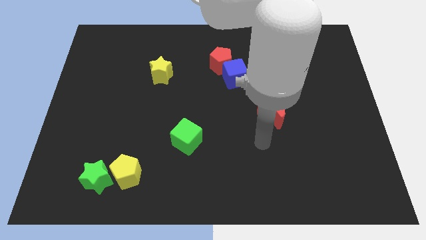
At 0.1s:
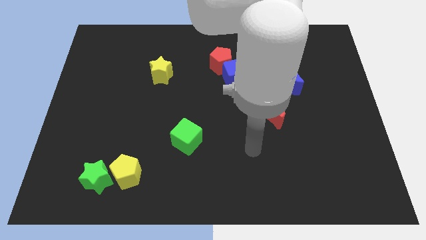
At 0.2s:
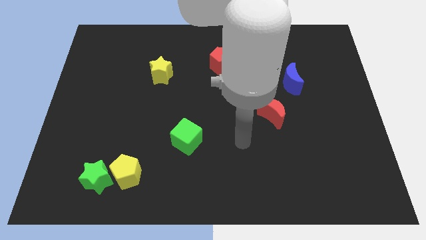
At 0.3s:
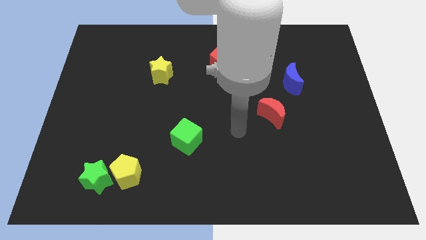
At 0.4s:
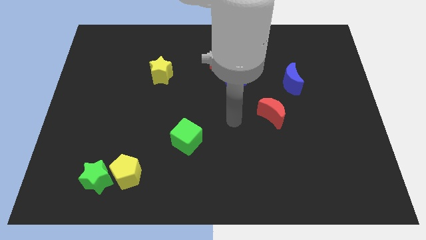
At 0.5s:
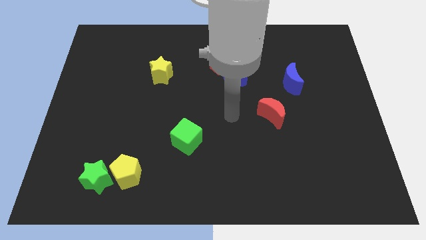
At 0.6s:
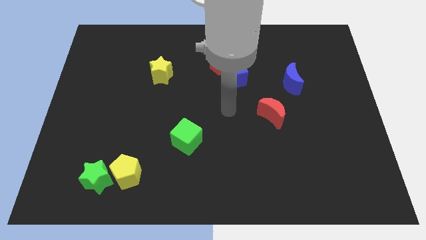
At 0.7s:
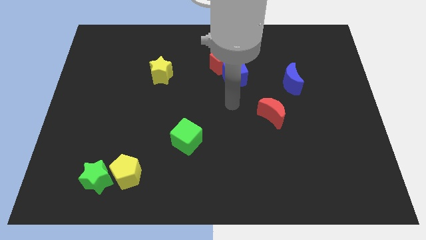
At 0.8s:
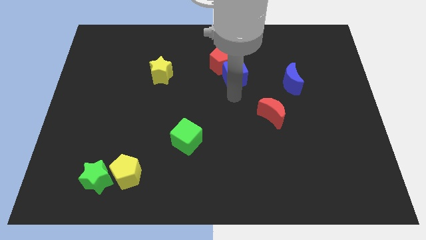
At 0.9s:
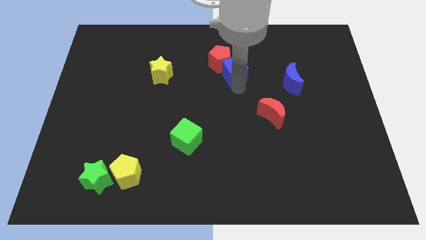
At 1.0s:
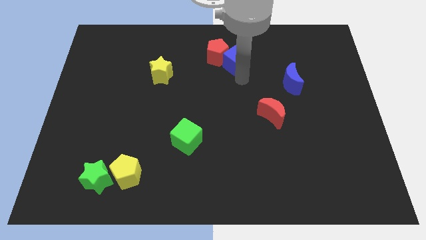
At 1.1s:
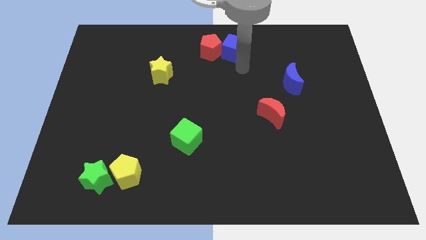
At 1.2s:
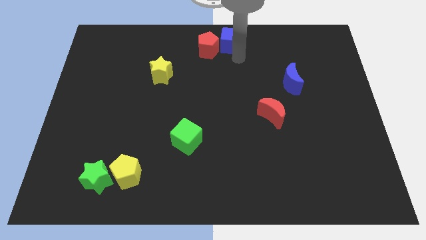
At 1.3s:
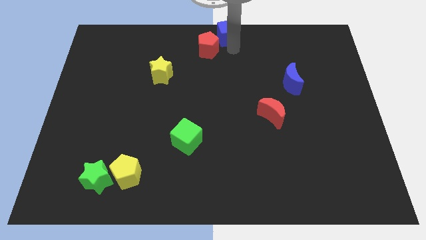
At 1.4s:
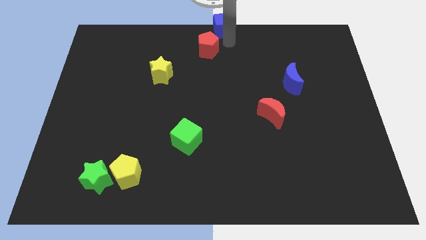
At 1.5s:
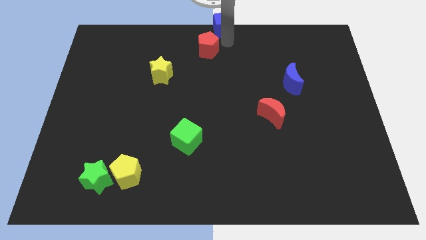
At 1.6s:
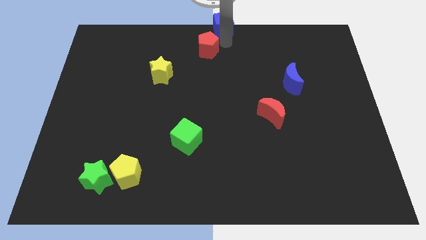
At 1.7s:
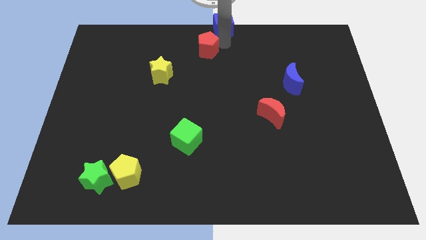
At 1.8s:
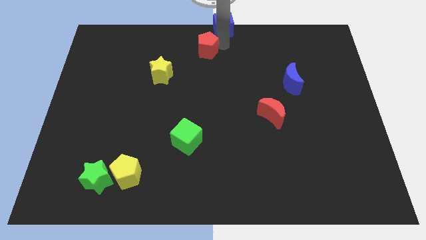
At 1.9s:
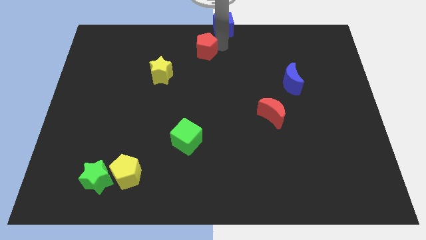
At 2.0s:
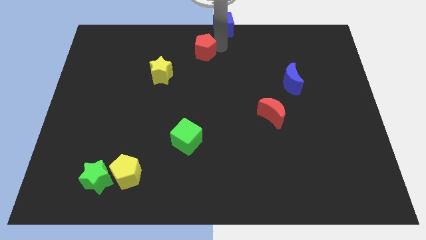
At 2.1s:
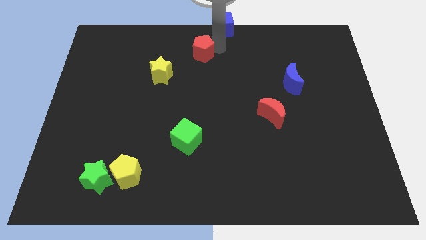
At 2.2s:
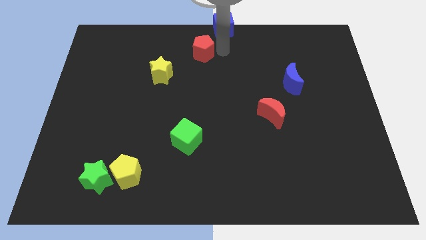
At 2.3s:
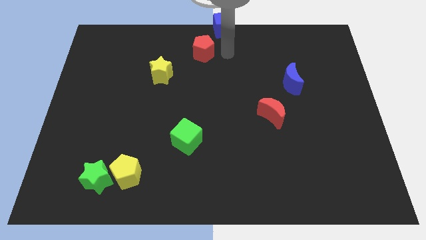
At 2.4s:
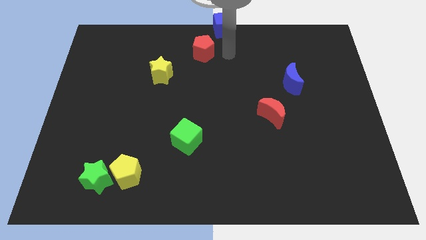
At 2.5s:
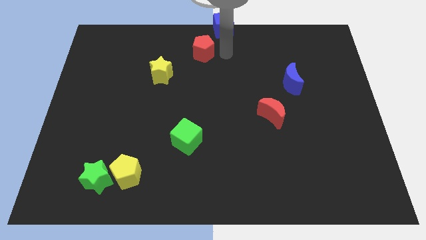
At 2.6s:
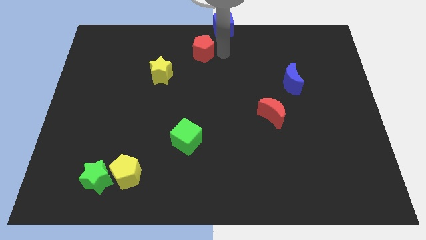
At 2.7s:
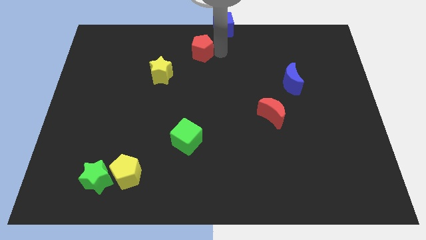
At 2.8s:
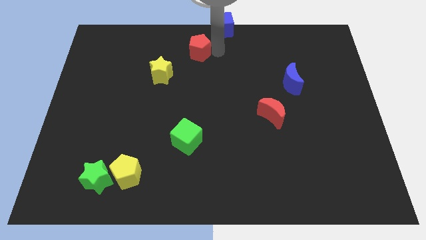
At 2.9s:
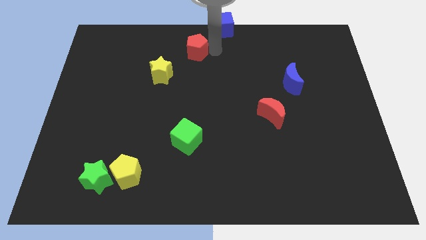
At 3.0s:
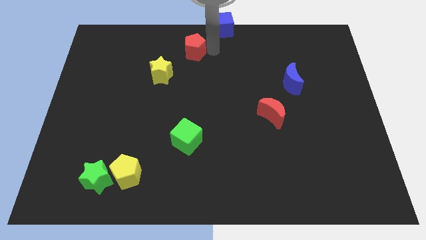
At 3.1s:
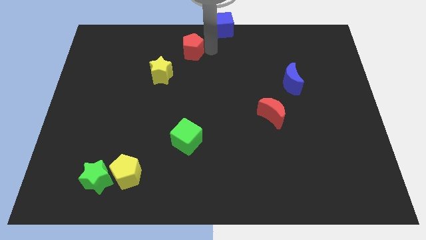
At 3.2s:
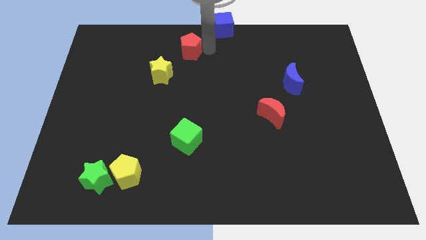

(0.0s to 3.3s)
move the red pentagon a bit to the left

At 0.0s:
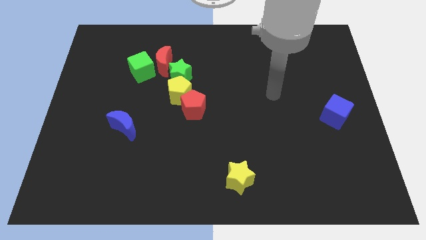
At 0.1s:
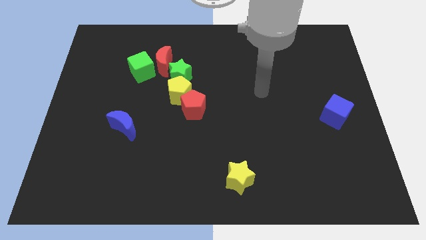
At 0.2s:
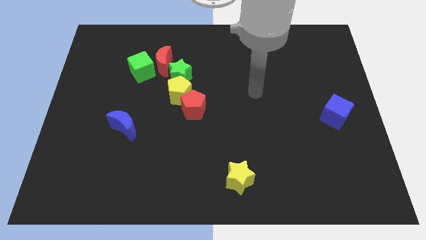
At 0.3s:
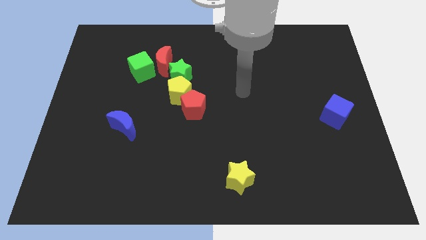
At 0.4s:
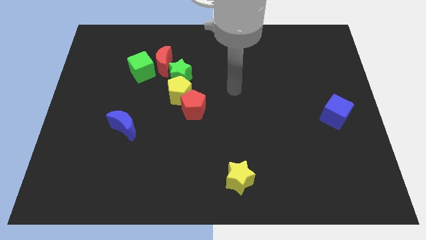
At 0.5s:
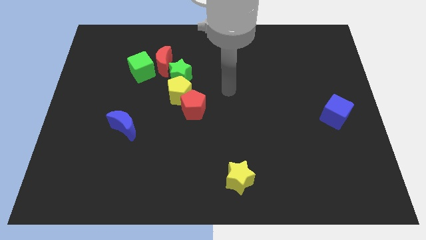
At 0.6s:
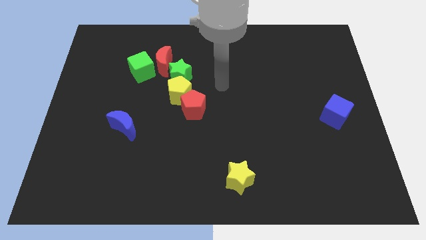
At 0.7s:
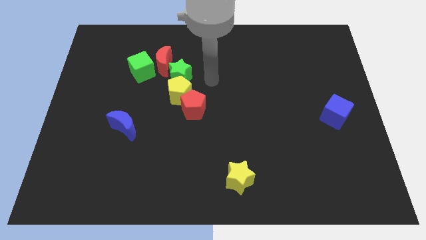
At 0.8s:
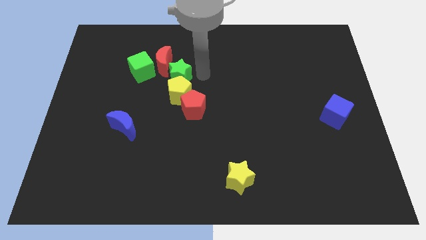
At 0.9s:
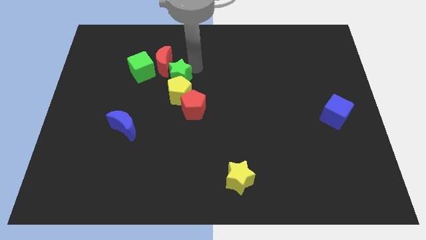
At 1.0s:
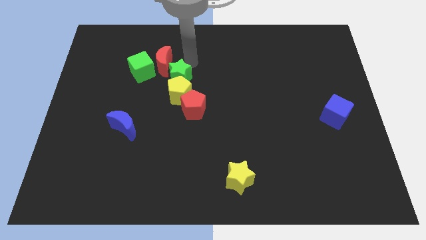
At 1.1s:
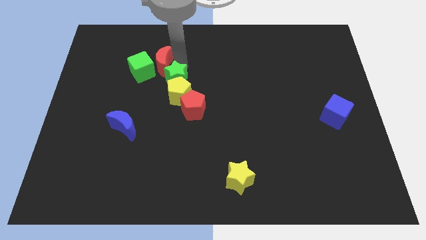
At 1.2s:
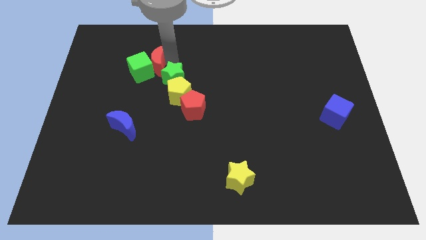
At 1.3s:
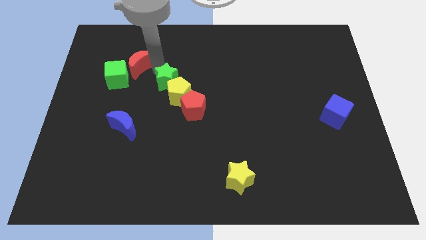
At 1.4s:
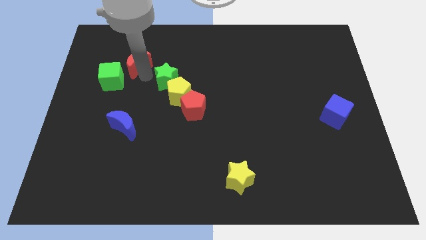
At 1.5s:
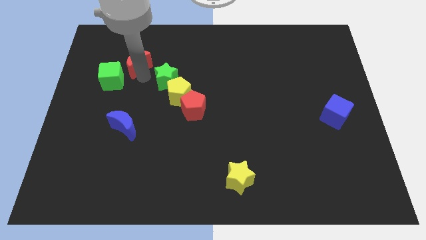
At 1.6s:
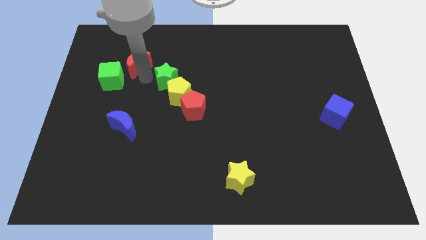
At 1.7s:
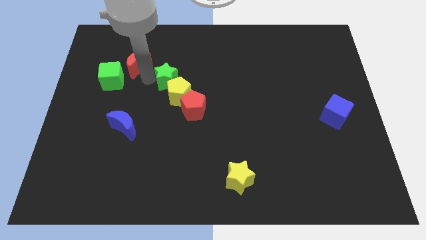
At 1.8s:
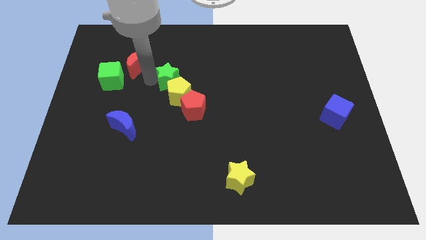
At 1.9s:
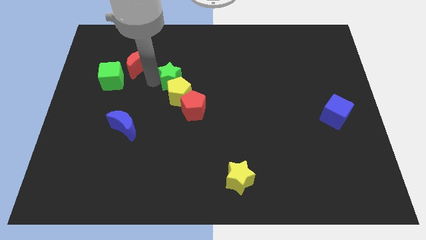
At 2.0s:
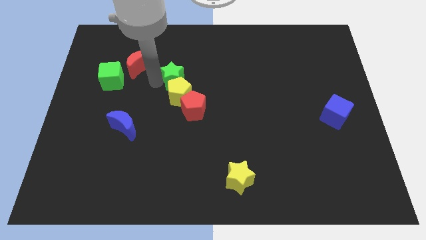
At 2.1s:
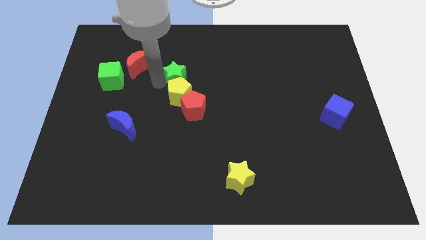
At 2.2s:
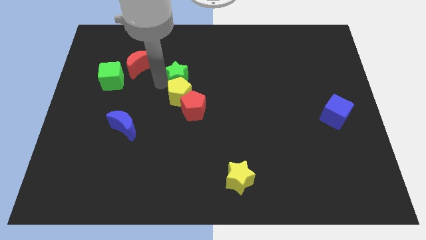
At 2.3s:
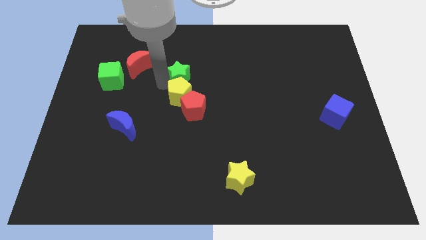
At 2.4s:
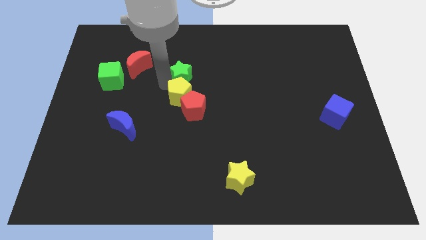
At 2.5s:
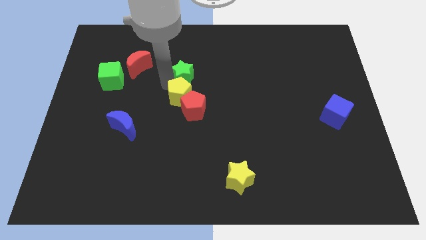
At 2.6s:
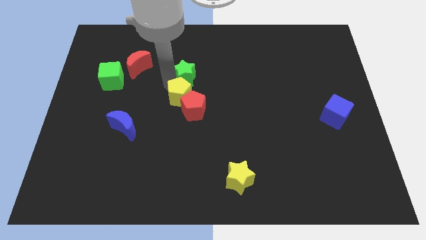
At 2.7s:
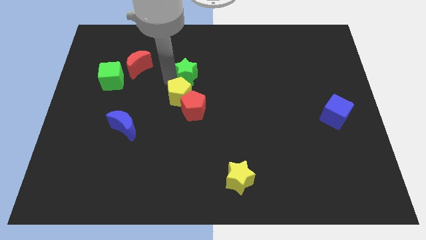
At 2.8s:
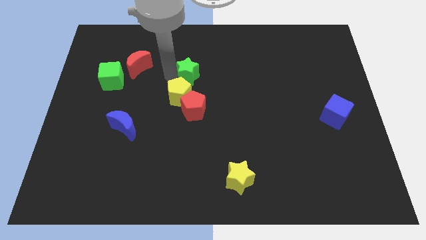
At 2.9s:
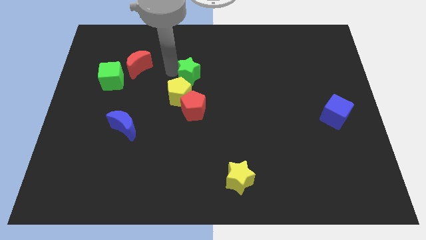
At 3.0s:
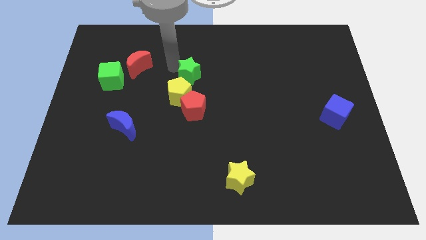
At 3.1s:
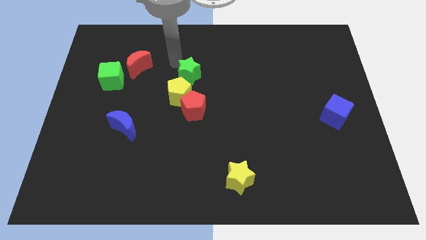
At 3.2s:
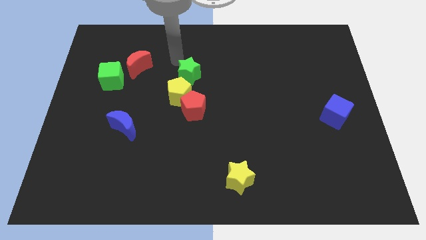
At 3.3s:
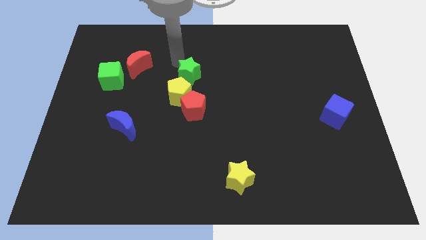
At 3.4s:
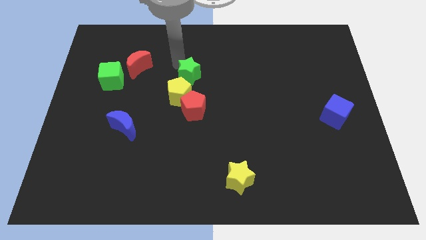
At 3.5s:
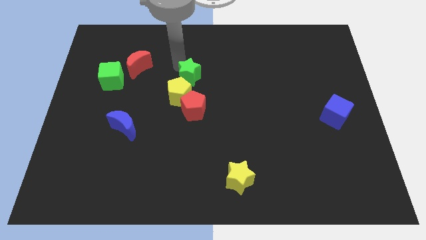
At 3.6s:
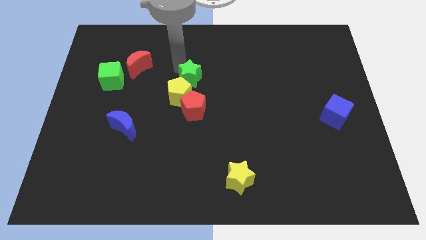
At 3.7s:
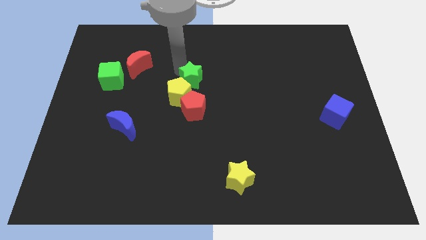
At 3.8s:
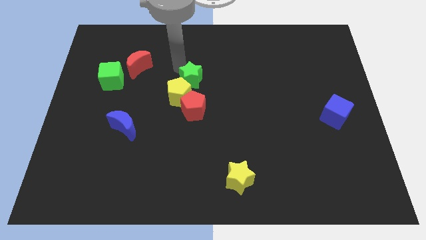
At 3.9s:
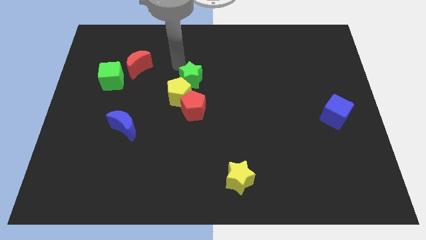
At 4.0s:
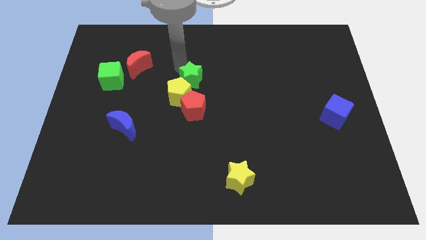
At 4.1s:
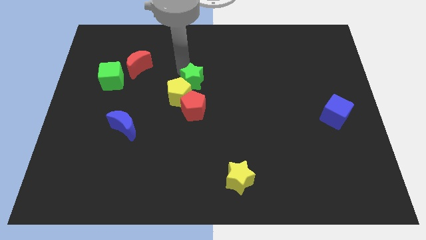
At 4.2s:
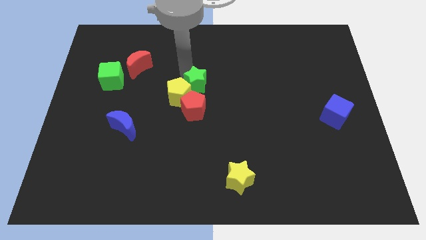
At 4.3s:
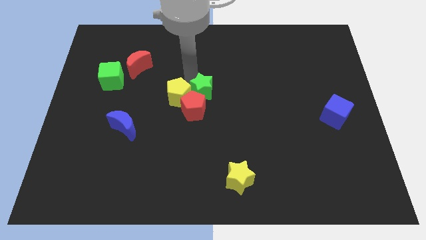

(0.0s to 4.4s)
slide the green star downwards and right a little bit

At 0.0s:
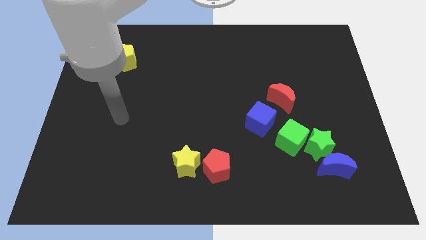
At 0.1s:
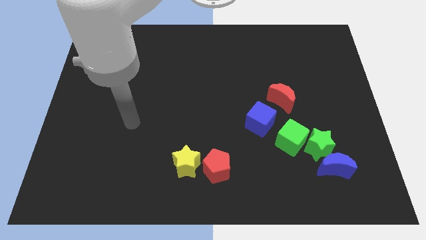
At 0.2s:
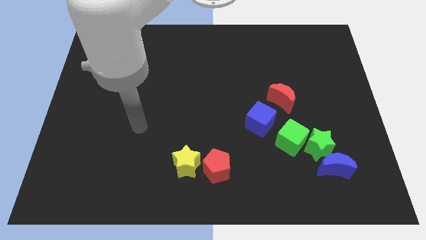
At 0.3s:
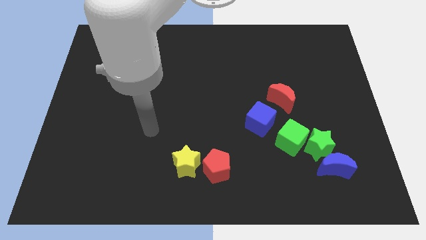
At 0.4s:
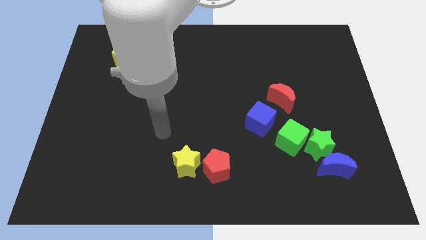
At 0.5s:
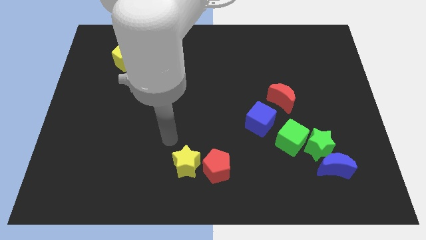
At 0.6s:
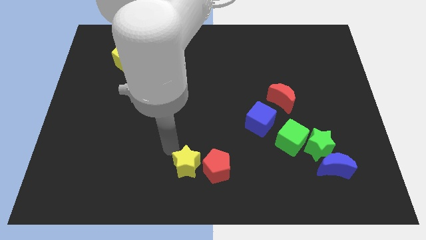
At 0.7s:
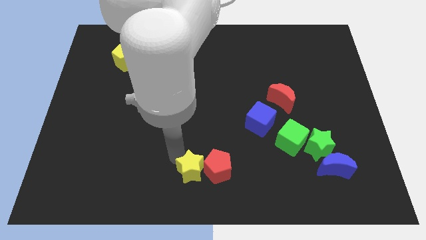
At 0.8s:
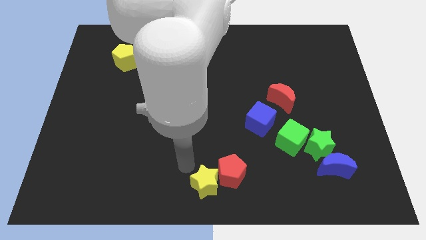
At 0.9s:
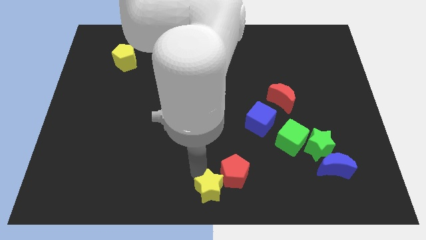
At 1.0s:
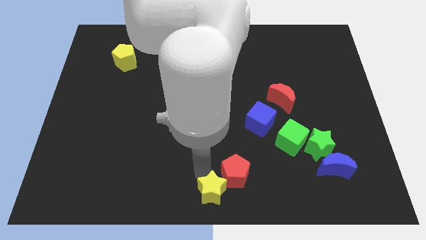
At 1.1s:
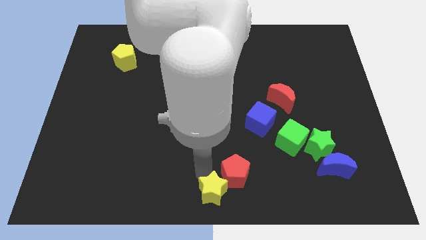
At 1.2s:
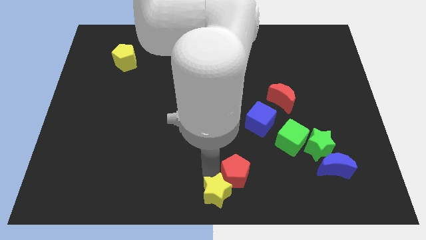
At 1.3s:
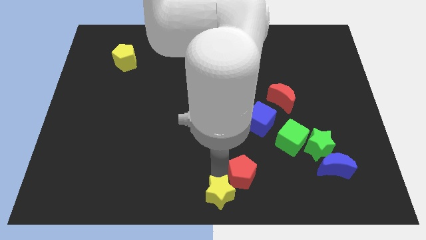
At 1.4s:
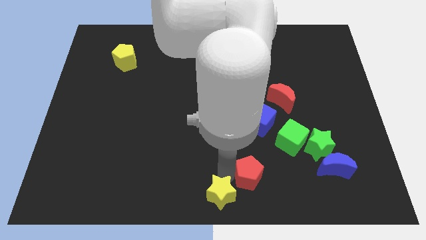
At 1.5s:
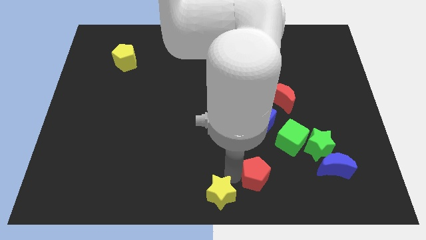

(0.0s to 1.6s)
slightly push the red pentagon to the right
